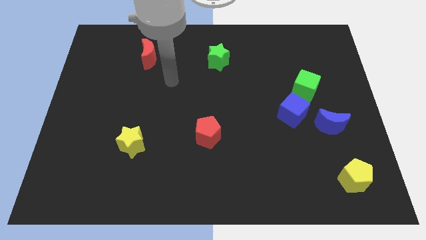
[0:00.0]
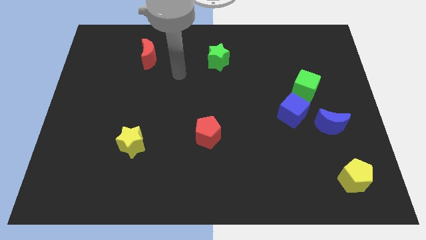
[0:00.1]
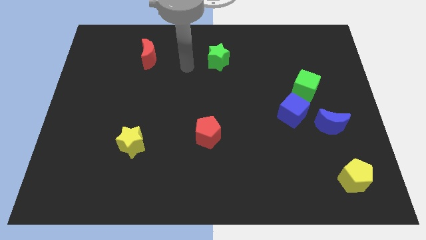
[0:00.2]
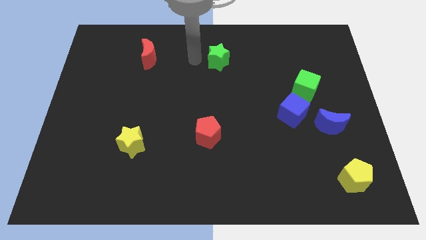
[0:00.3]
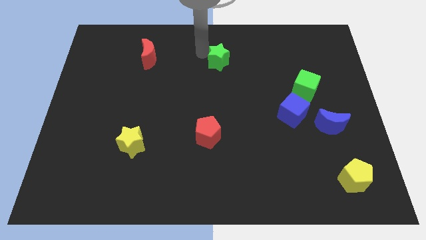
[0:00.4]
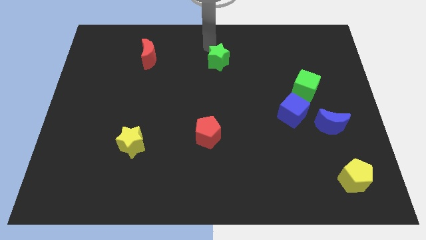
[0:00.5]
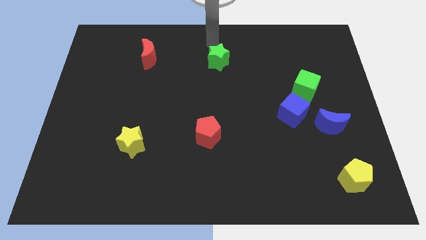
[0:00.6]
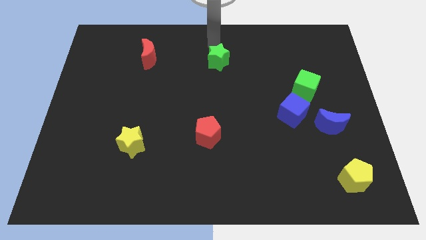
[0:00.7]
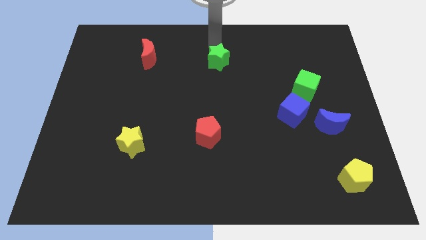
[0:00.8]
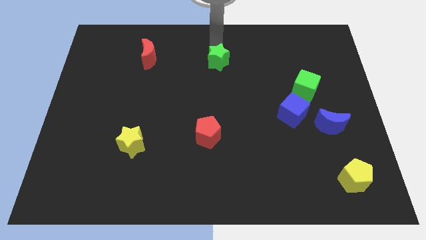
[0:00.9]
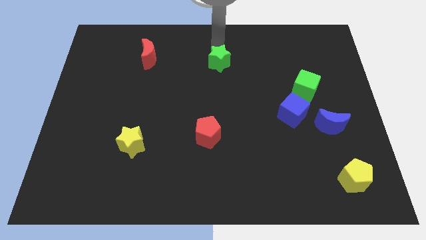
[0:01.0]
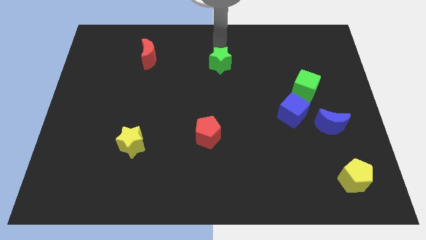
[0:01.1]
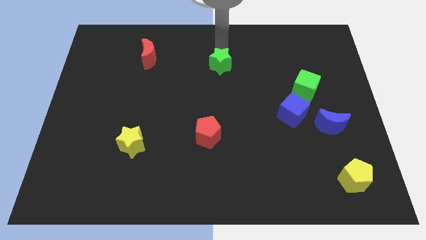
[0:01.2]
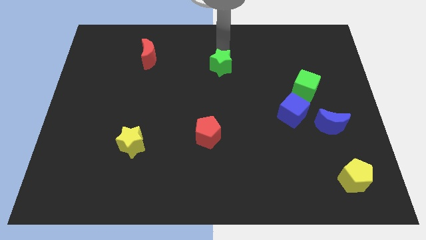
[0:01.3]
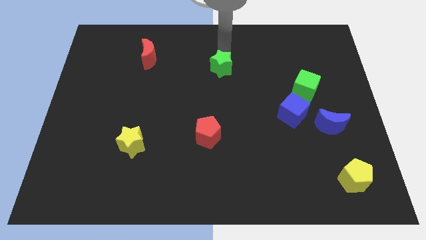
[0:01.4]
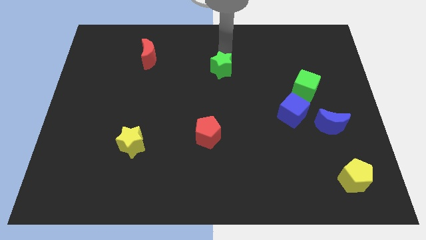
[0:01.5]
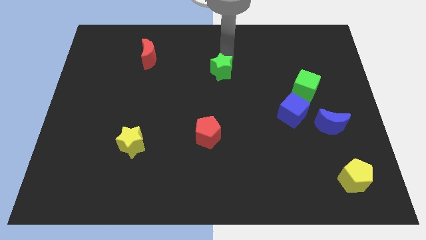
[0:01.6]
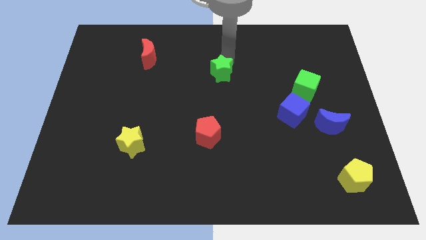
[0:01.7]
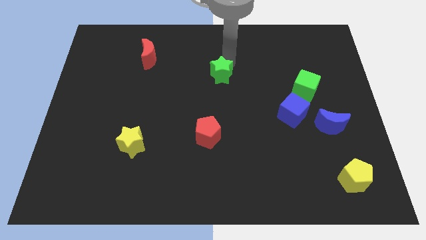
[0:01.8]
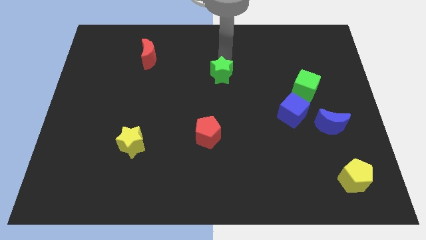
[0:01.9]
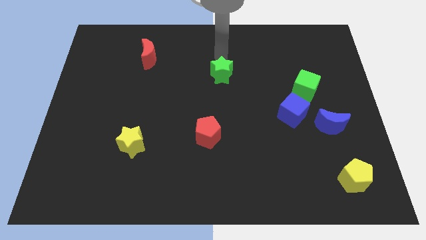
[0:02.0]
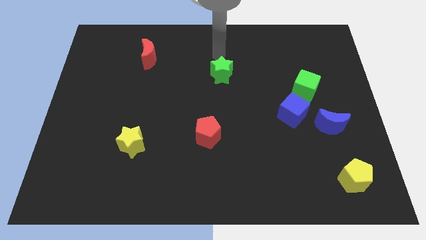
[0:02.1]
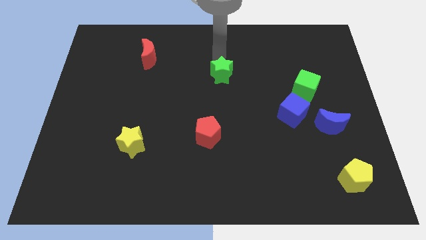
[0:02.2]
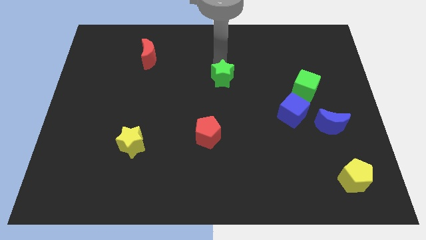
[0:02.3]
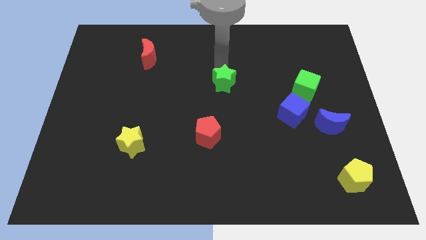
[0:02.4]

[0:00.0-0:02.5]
move the green star a bit down

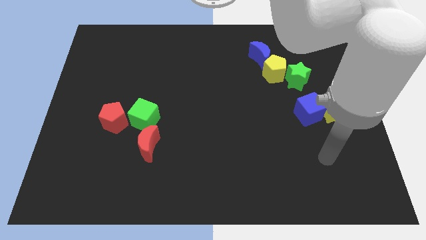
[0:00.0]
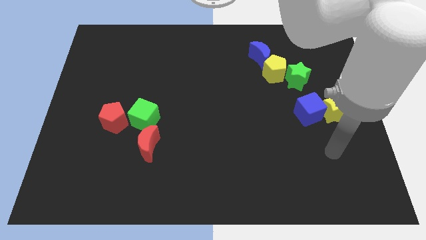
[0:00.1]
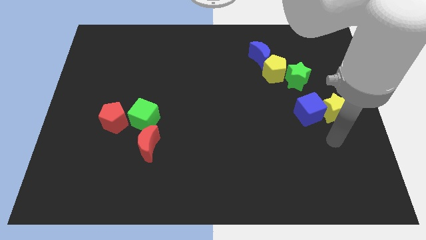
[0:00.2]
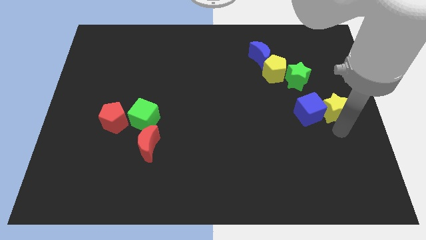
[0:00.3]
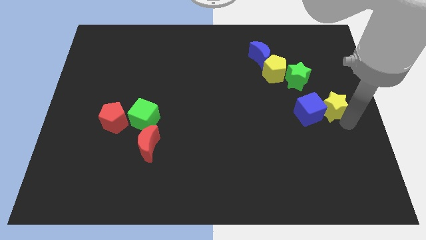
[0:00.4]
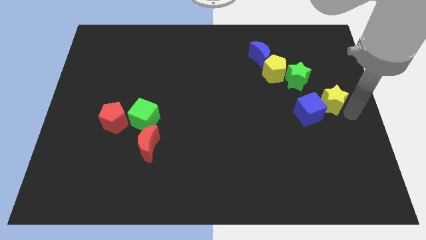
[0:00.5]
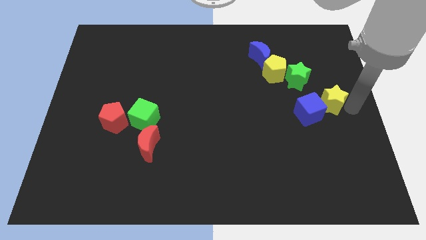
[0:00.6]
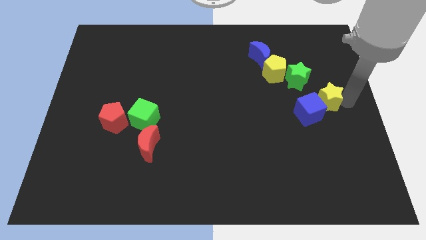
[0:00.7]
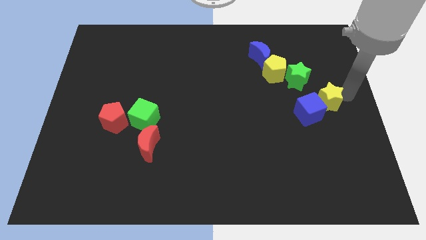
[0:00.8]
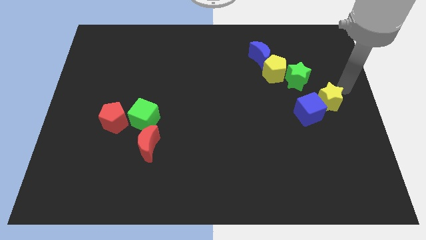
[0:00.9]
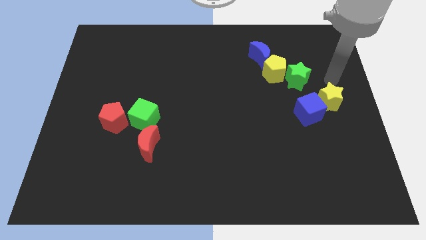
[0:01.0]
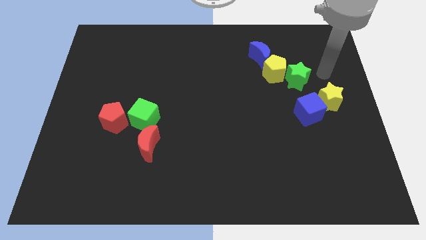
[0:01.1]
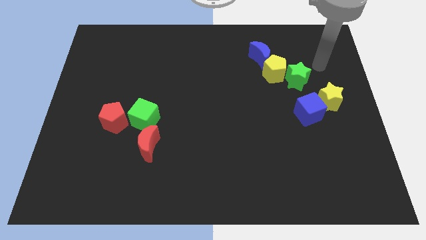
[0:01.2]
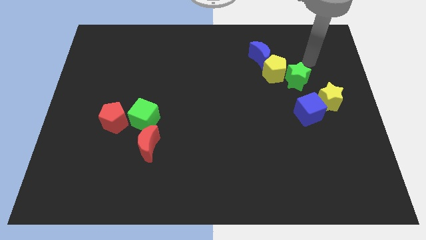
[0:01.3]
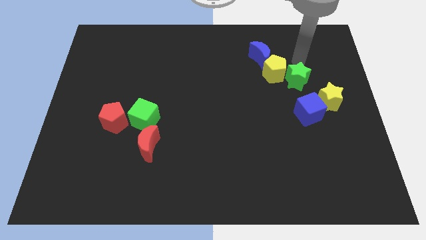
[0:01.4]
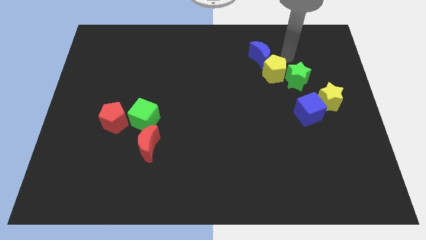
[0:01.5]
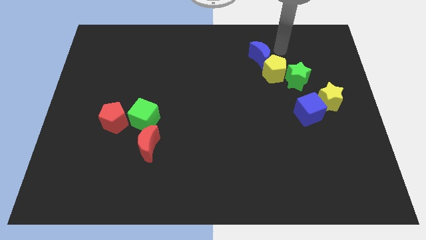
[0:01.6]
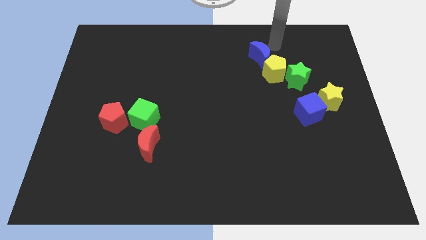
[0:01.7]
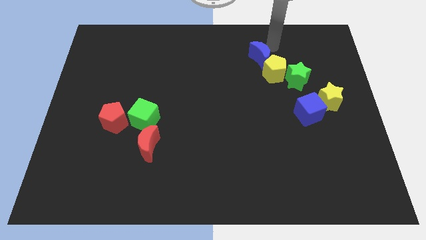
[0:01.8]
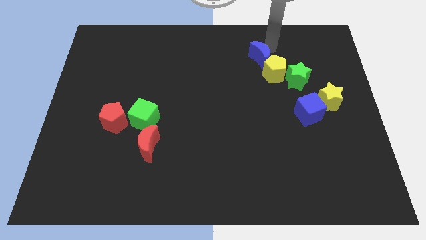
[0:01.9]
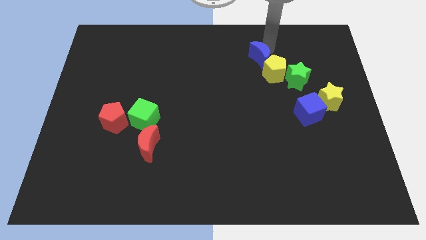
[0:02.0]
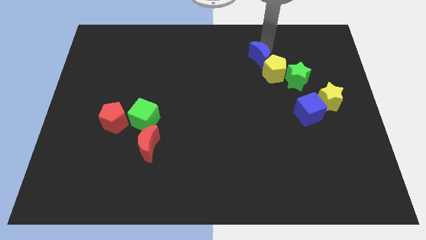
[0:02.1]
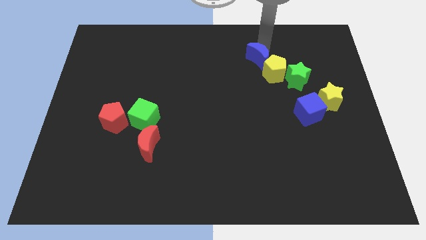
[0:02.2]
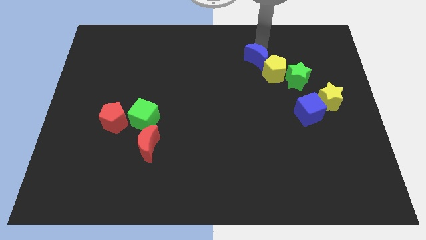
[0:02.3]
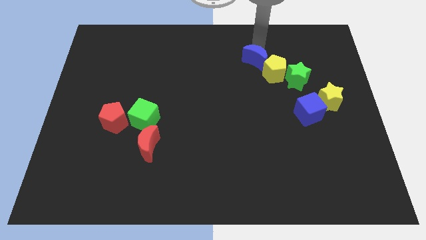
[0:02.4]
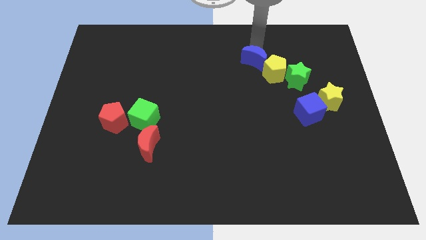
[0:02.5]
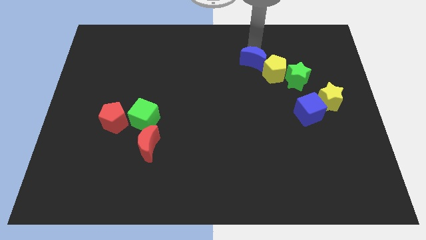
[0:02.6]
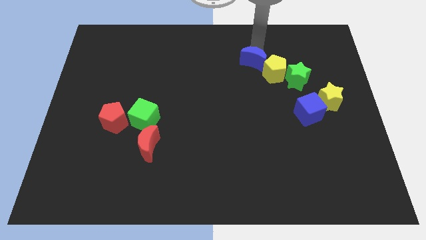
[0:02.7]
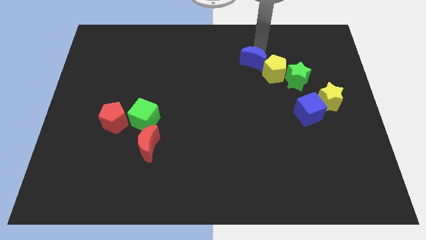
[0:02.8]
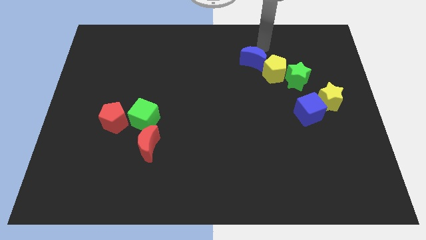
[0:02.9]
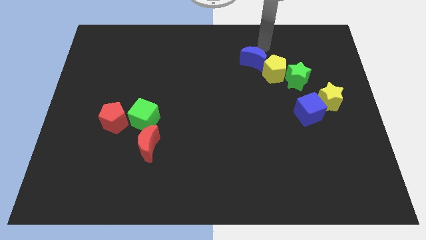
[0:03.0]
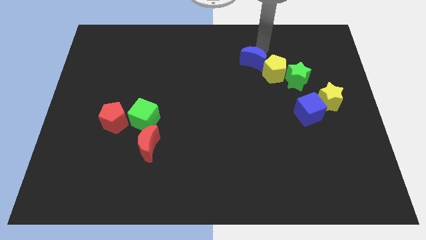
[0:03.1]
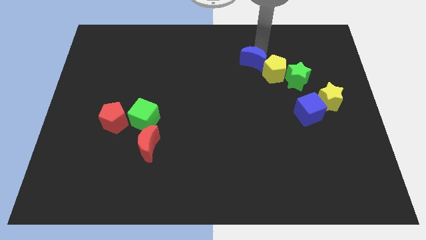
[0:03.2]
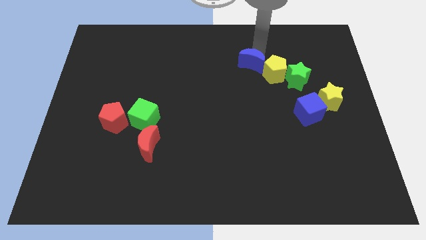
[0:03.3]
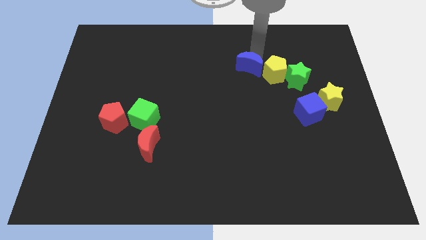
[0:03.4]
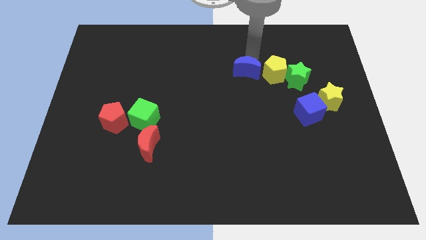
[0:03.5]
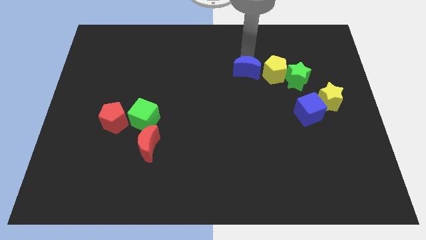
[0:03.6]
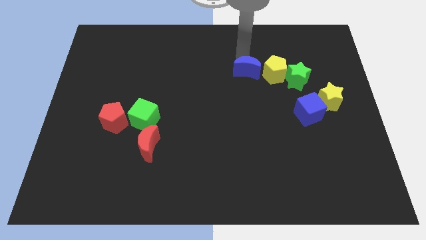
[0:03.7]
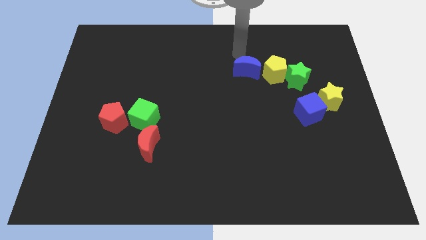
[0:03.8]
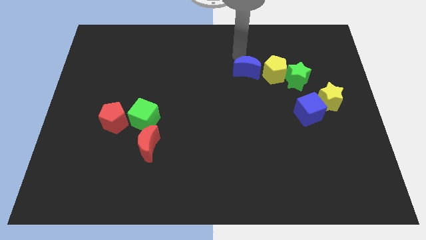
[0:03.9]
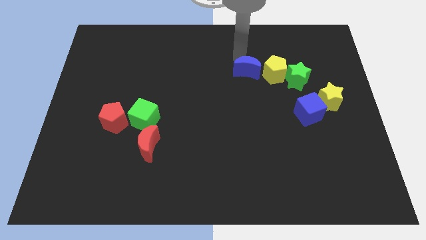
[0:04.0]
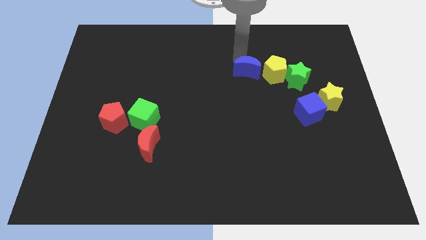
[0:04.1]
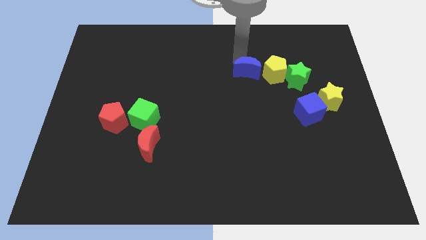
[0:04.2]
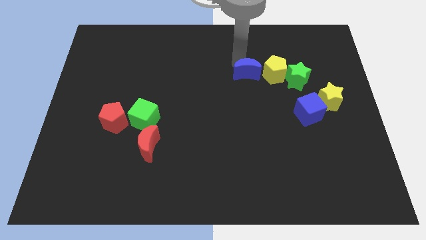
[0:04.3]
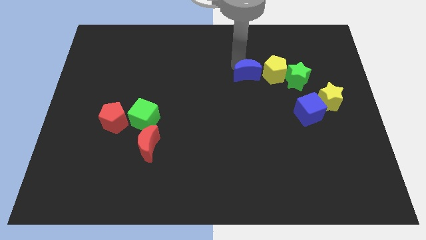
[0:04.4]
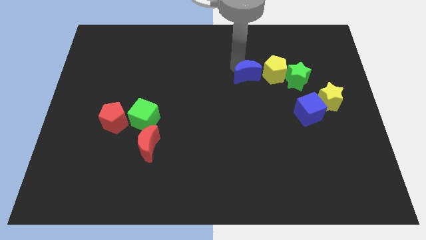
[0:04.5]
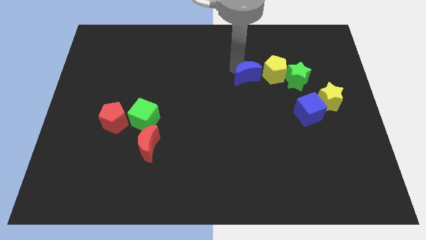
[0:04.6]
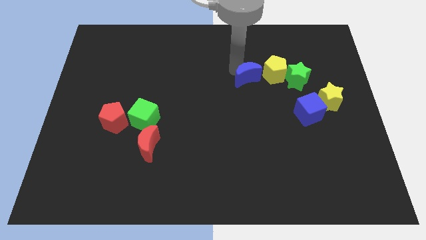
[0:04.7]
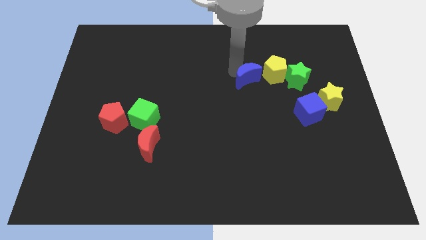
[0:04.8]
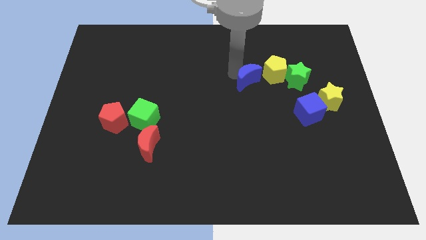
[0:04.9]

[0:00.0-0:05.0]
move the blue moon a bit downwards

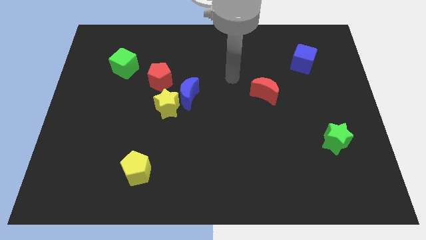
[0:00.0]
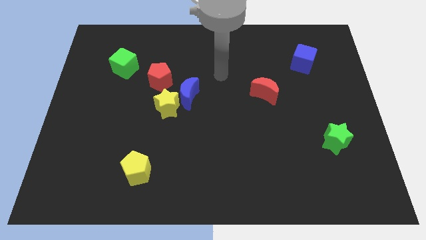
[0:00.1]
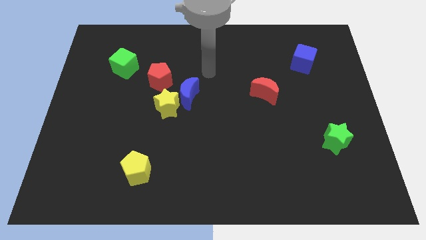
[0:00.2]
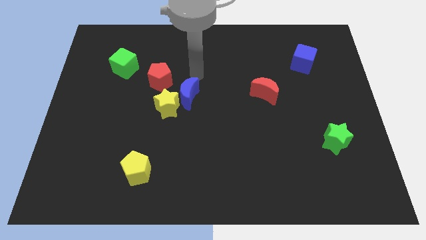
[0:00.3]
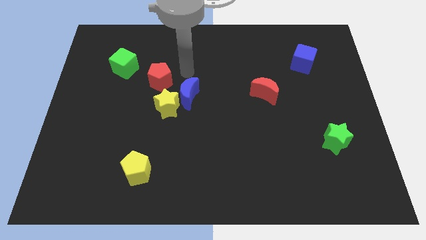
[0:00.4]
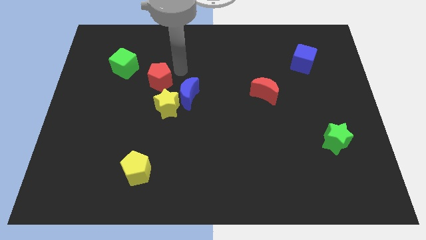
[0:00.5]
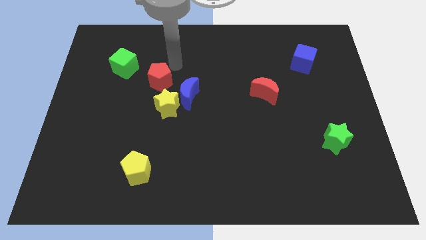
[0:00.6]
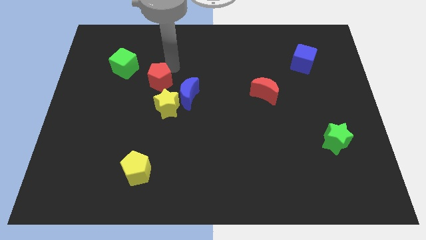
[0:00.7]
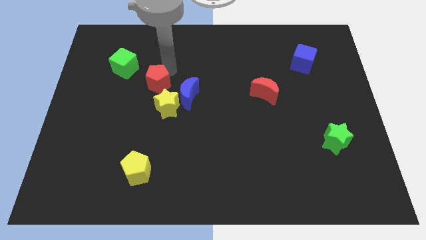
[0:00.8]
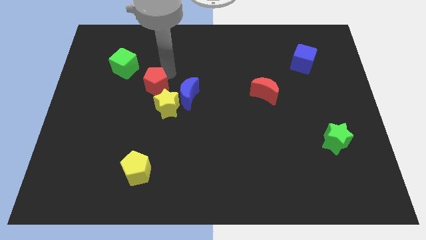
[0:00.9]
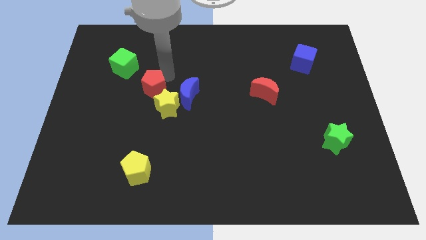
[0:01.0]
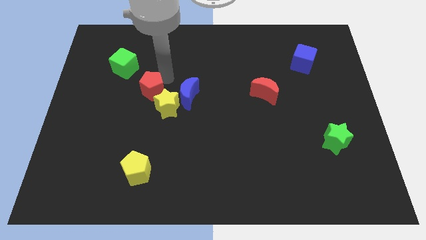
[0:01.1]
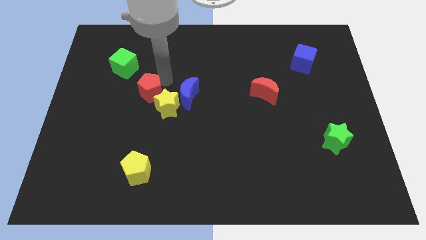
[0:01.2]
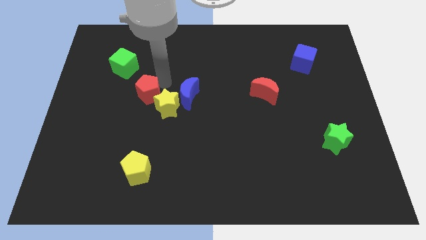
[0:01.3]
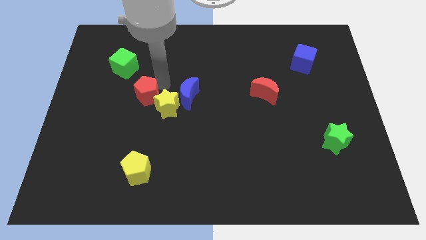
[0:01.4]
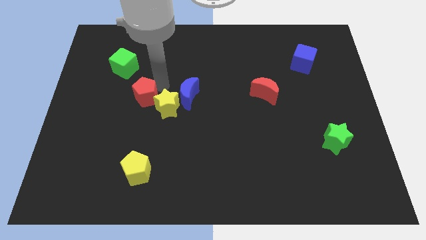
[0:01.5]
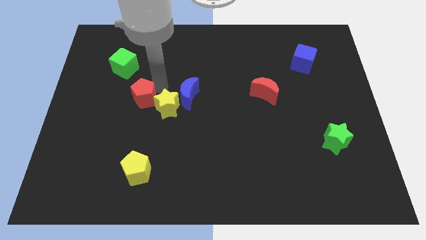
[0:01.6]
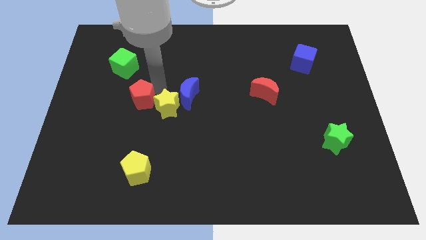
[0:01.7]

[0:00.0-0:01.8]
slightly push the red pentagon down and then left
